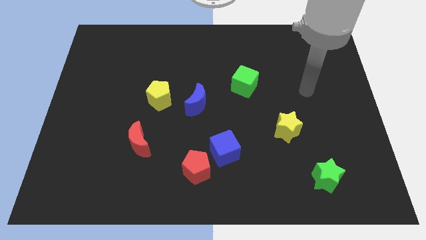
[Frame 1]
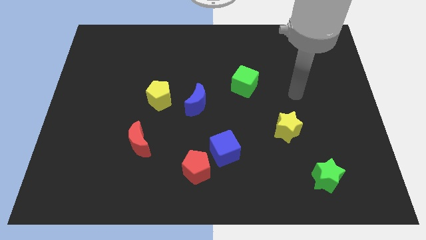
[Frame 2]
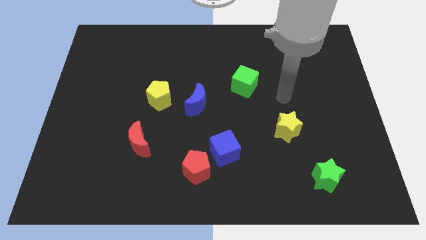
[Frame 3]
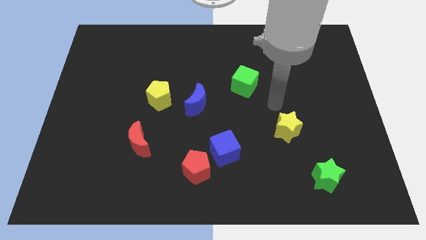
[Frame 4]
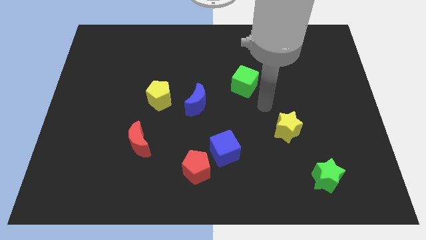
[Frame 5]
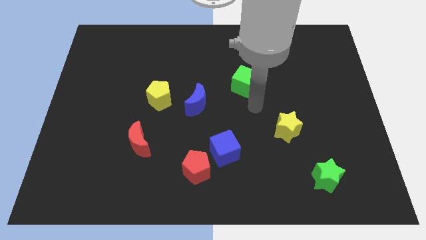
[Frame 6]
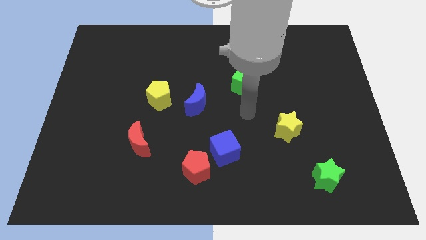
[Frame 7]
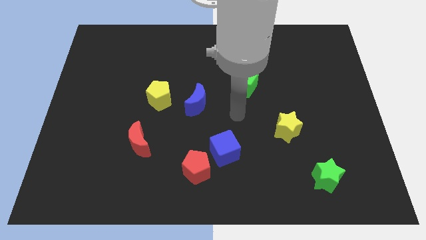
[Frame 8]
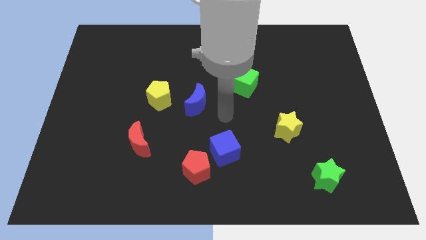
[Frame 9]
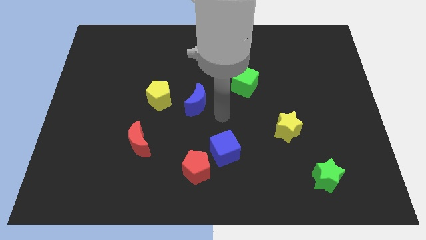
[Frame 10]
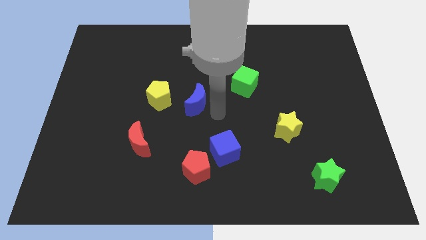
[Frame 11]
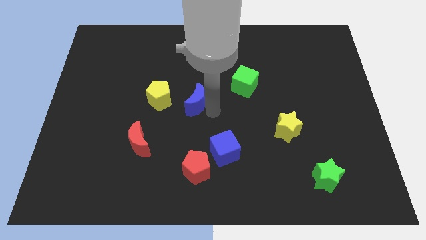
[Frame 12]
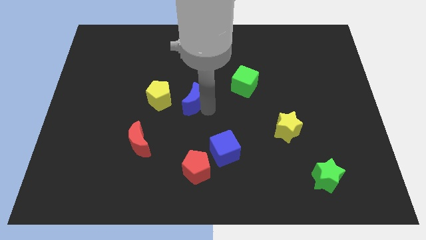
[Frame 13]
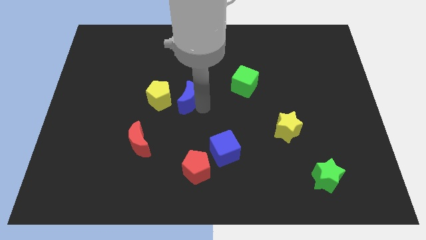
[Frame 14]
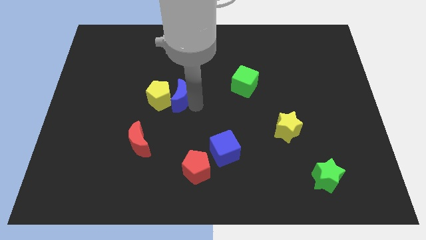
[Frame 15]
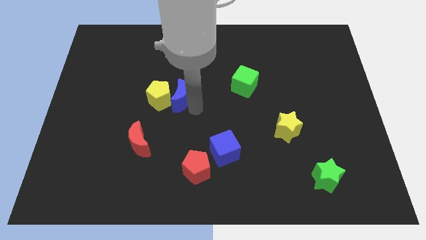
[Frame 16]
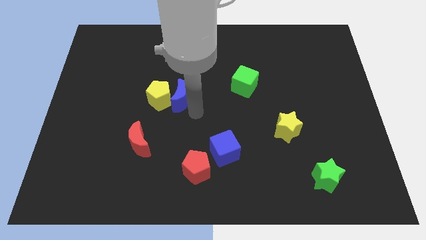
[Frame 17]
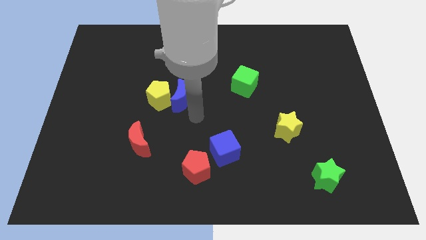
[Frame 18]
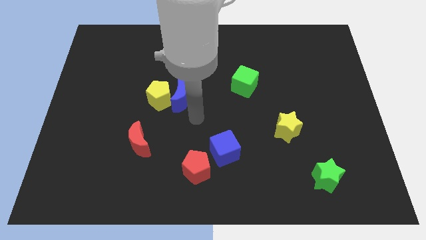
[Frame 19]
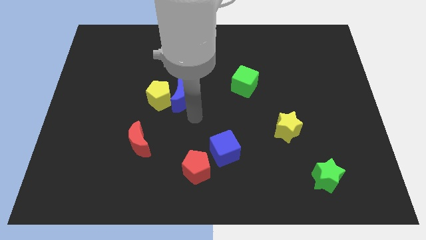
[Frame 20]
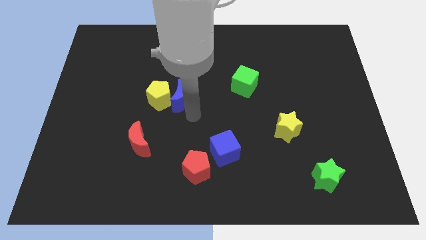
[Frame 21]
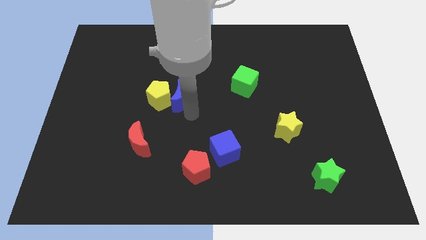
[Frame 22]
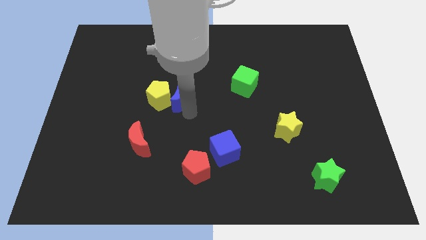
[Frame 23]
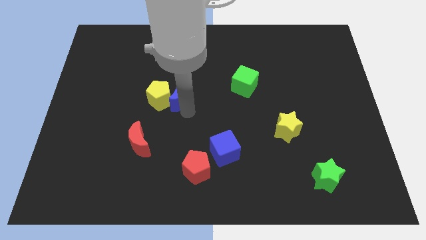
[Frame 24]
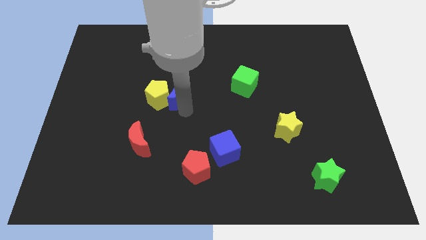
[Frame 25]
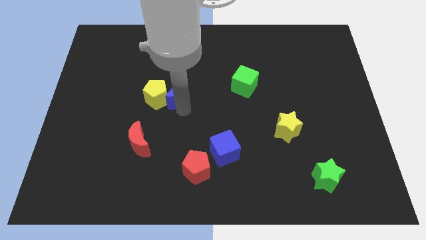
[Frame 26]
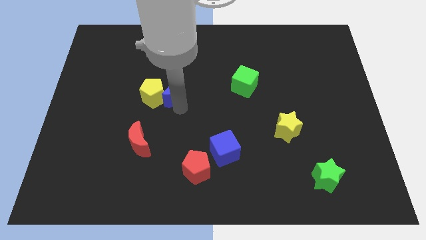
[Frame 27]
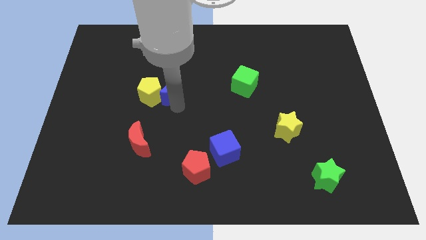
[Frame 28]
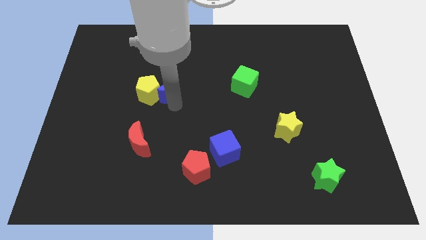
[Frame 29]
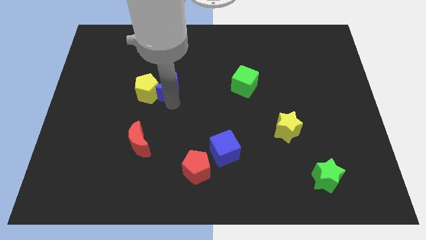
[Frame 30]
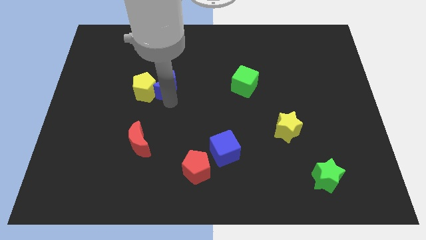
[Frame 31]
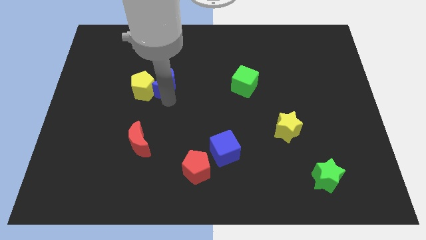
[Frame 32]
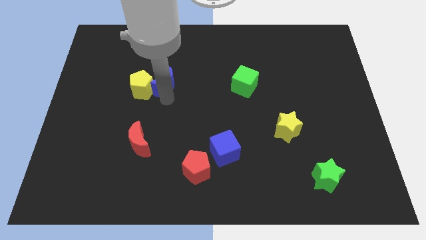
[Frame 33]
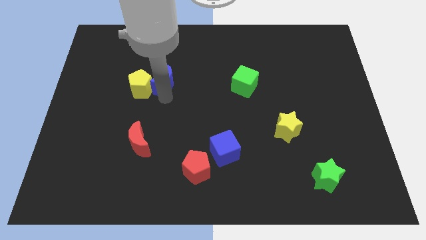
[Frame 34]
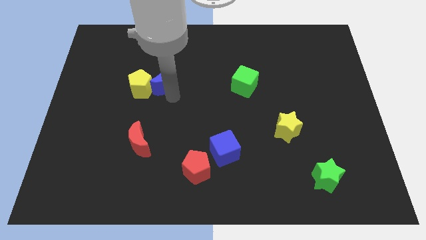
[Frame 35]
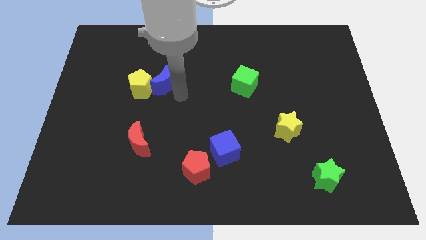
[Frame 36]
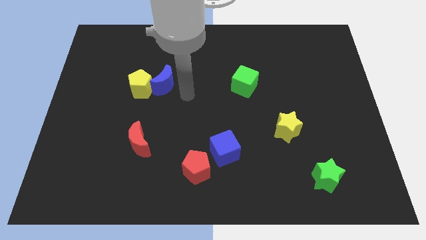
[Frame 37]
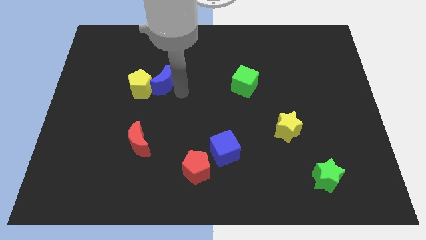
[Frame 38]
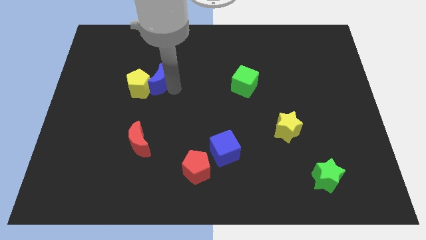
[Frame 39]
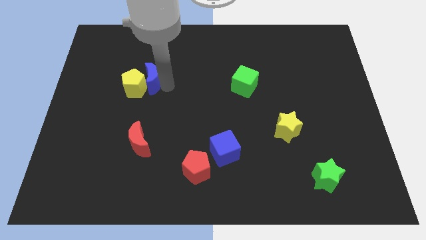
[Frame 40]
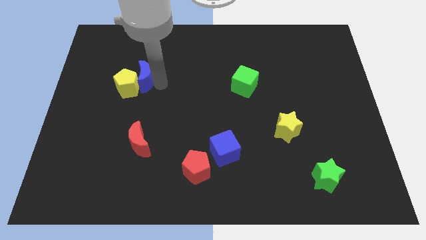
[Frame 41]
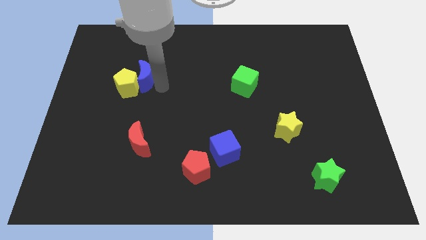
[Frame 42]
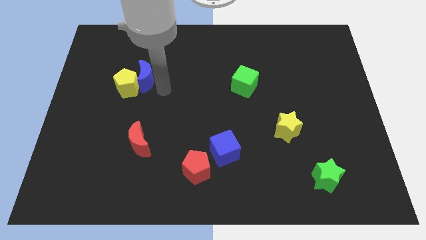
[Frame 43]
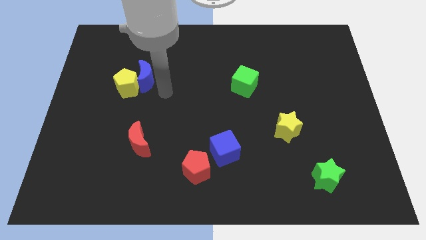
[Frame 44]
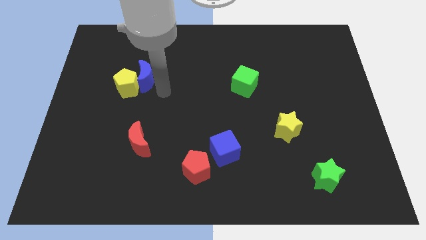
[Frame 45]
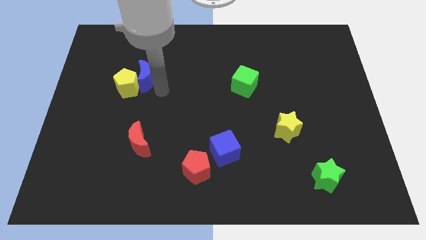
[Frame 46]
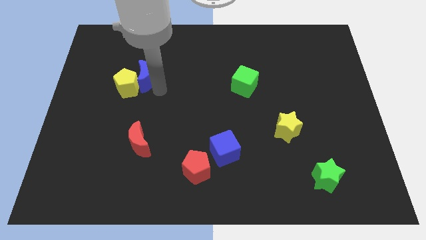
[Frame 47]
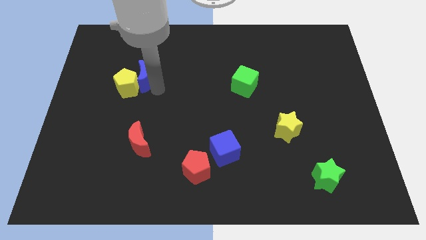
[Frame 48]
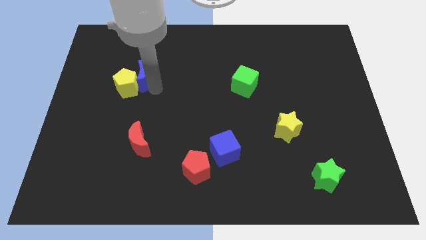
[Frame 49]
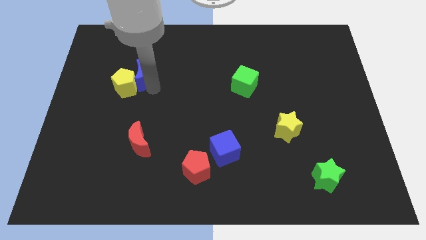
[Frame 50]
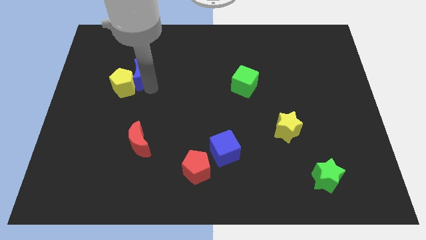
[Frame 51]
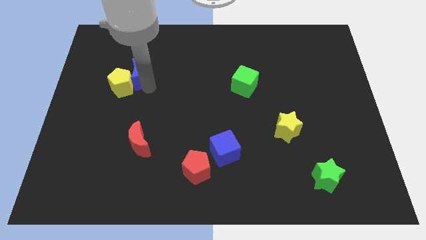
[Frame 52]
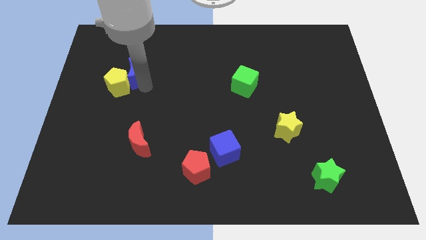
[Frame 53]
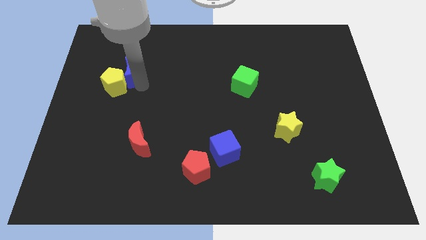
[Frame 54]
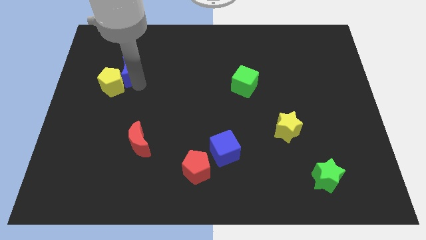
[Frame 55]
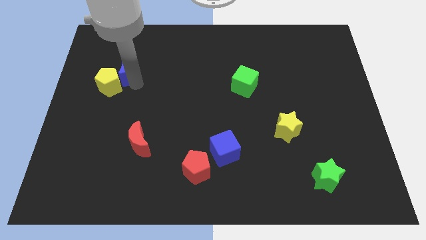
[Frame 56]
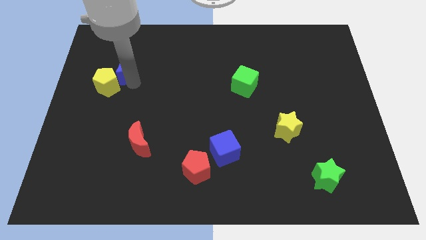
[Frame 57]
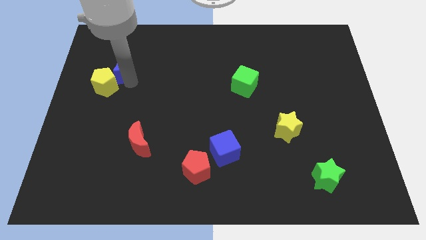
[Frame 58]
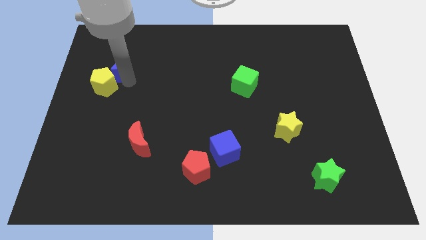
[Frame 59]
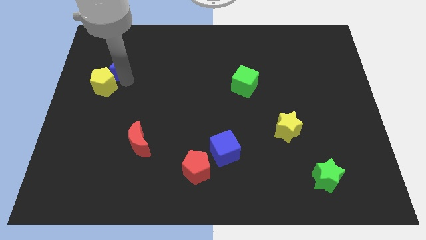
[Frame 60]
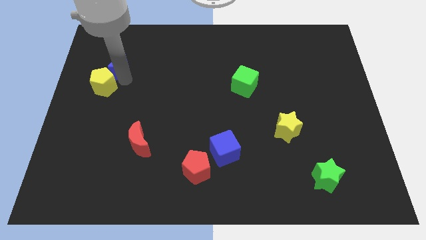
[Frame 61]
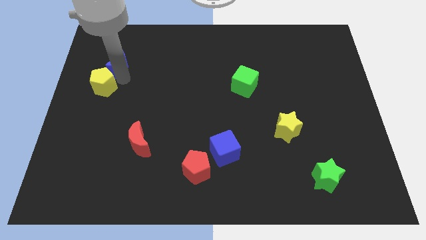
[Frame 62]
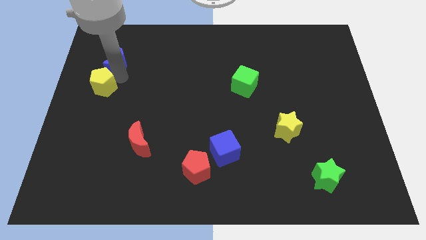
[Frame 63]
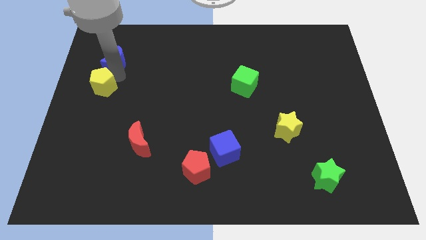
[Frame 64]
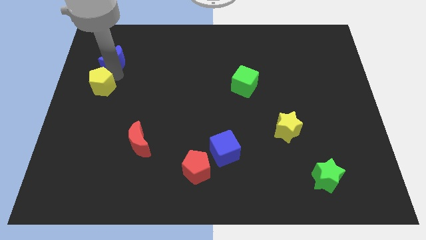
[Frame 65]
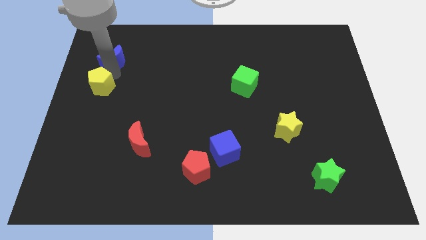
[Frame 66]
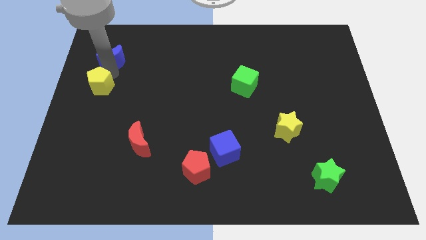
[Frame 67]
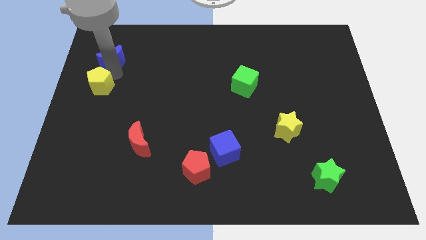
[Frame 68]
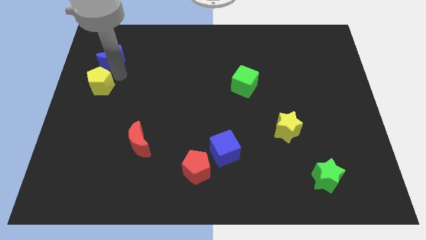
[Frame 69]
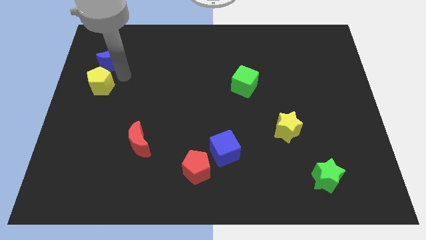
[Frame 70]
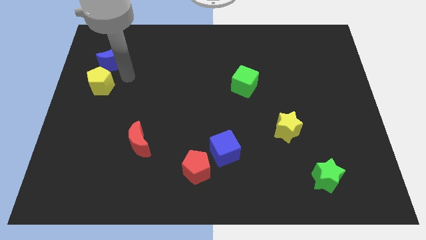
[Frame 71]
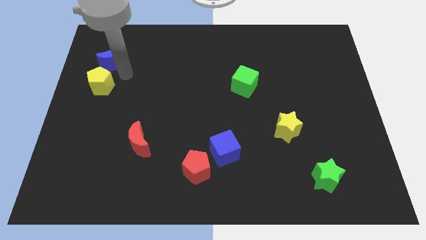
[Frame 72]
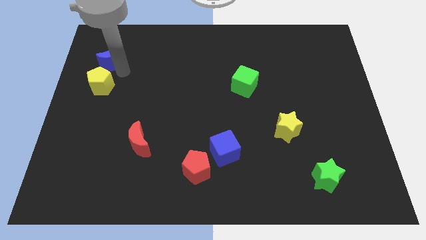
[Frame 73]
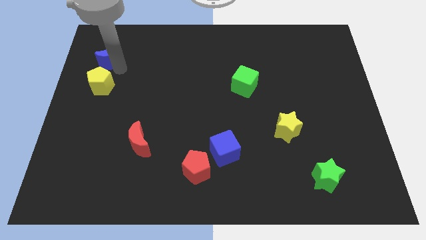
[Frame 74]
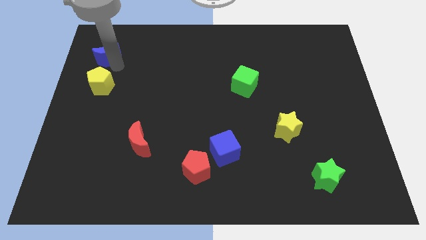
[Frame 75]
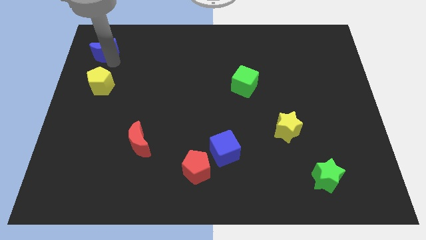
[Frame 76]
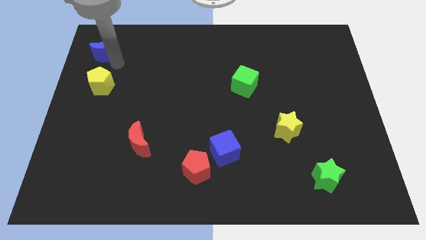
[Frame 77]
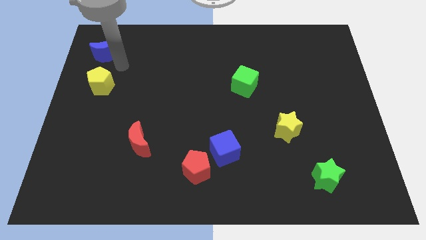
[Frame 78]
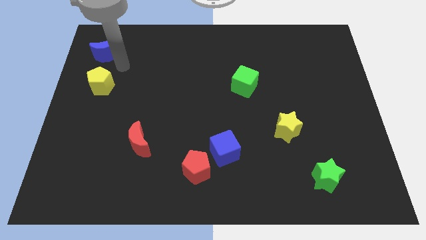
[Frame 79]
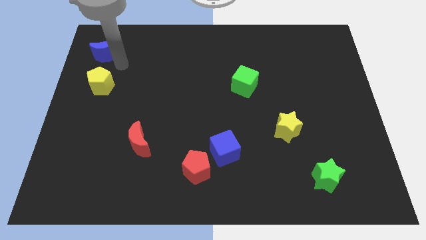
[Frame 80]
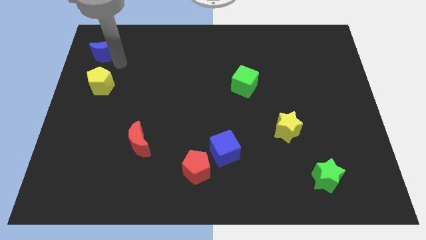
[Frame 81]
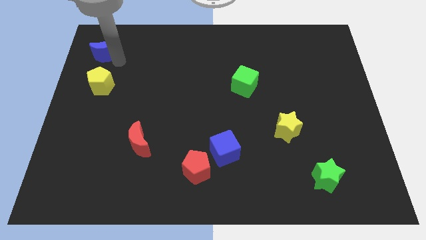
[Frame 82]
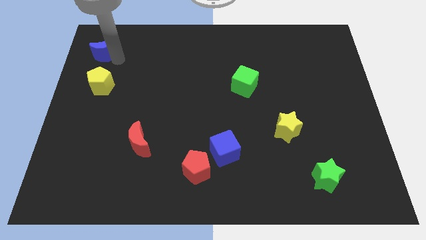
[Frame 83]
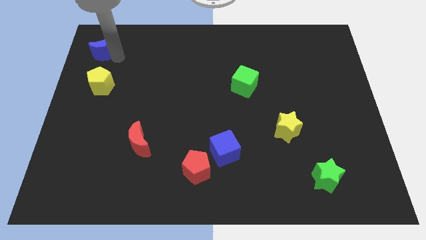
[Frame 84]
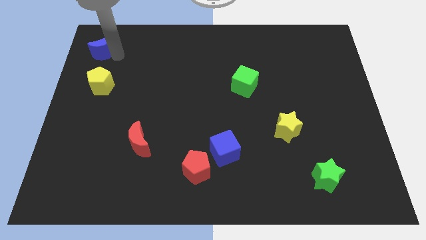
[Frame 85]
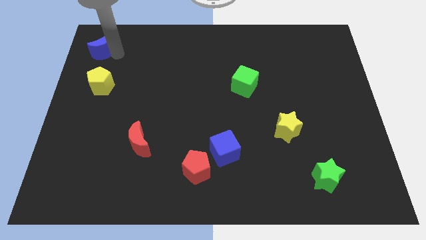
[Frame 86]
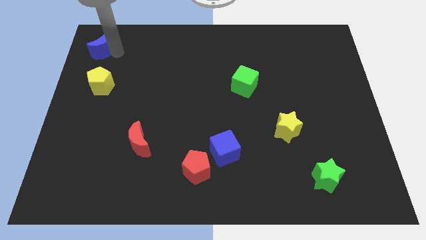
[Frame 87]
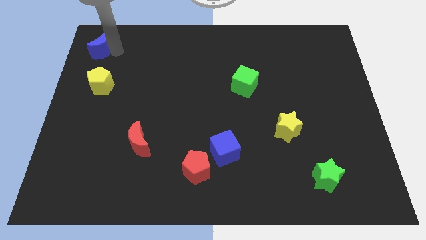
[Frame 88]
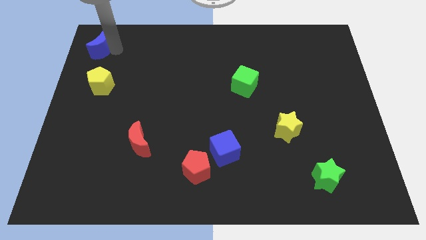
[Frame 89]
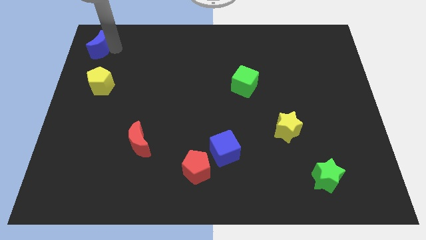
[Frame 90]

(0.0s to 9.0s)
push the blue moon to the top left corner
